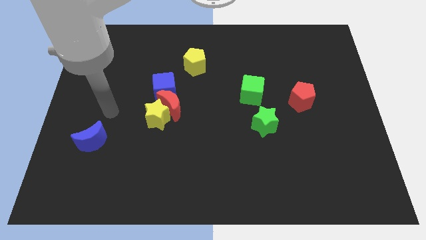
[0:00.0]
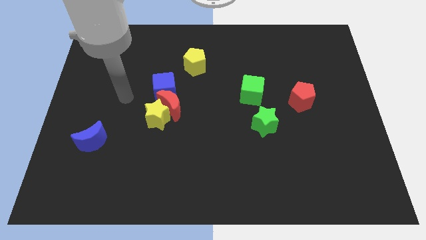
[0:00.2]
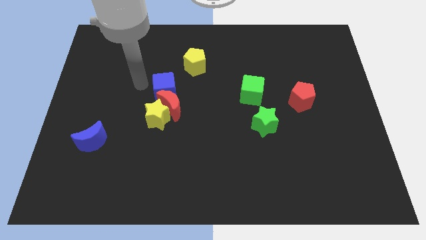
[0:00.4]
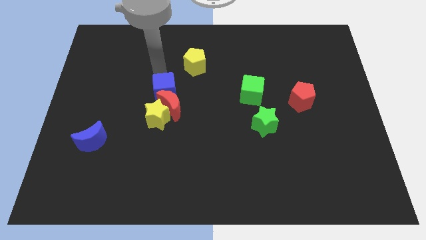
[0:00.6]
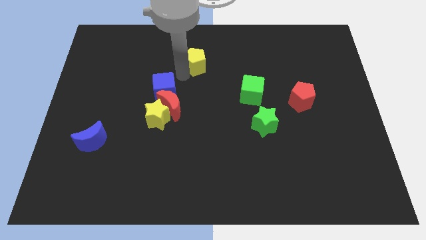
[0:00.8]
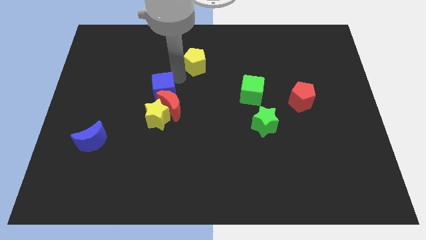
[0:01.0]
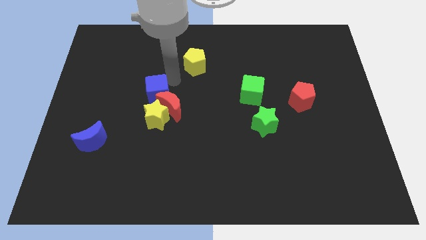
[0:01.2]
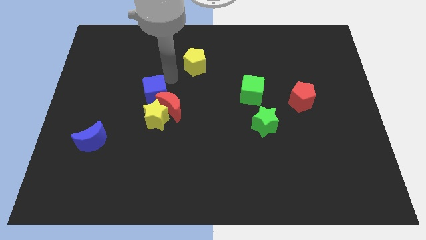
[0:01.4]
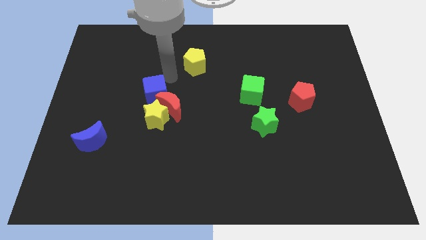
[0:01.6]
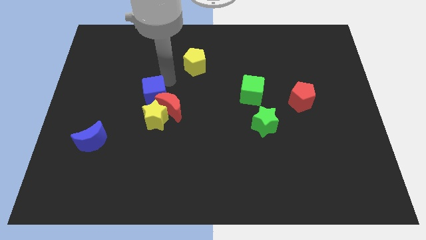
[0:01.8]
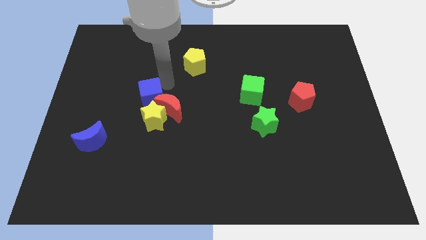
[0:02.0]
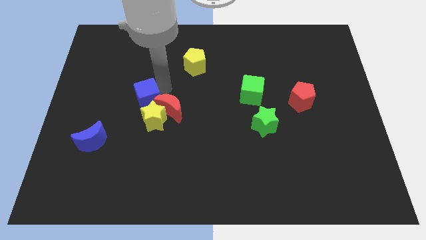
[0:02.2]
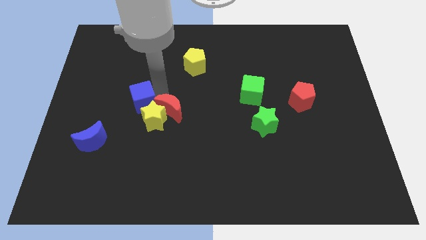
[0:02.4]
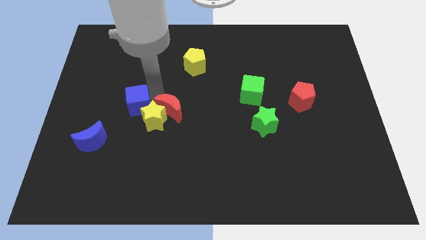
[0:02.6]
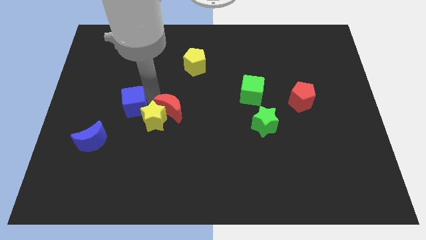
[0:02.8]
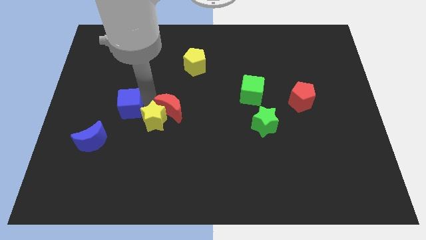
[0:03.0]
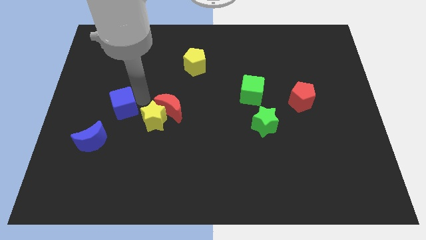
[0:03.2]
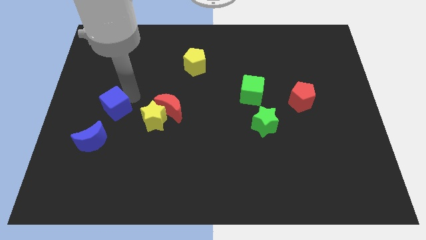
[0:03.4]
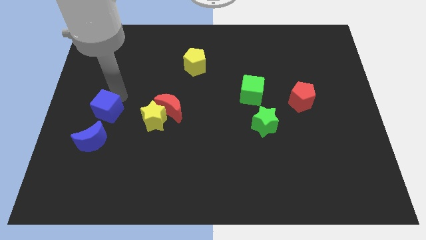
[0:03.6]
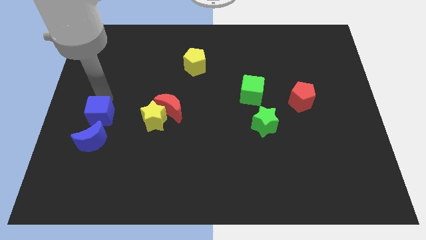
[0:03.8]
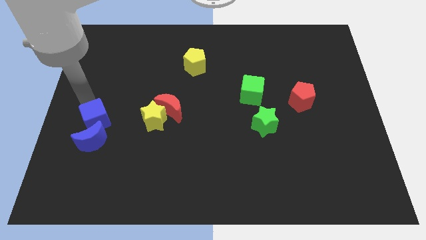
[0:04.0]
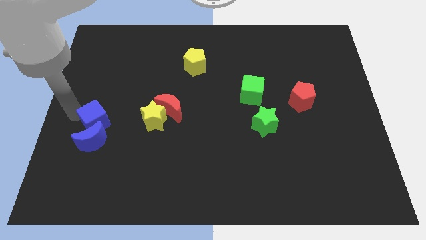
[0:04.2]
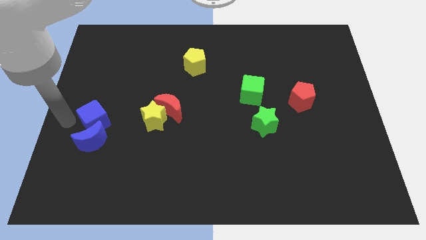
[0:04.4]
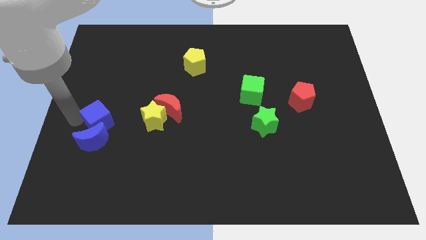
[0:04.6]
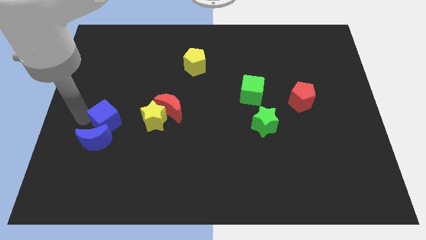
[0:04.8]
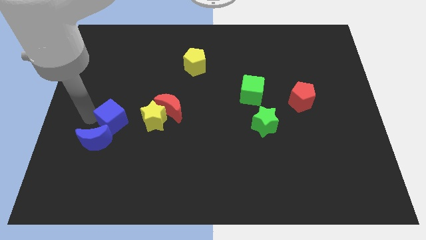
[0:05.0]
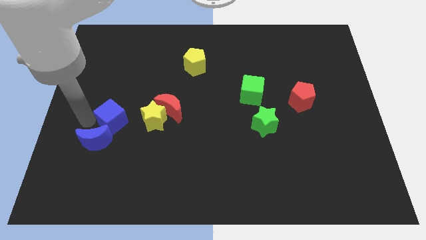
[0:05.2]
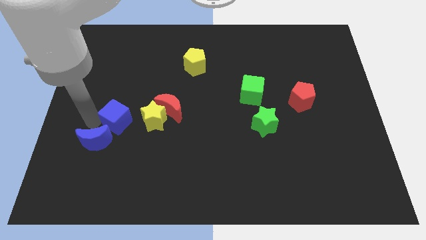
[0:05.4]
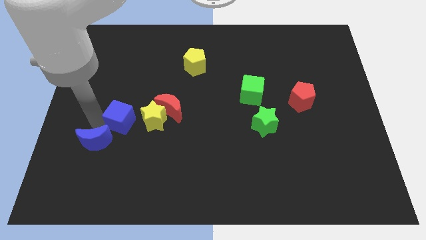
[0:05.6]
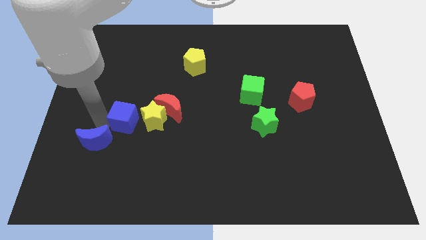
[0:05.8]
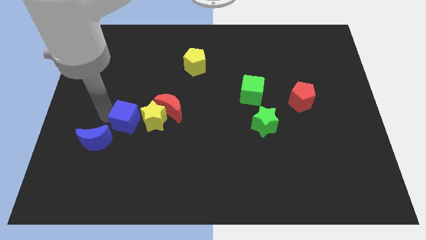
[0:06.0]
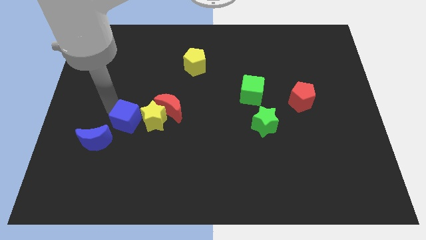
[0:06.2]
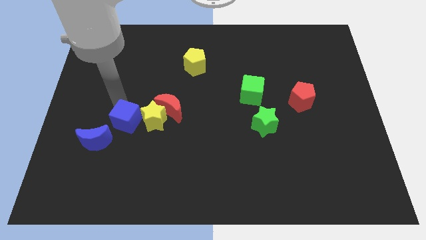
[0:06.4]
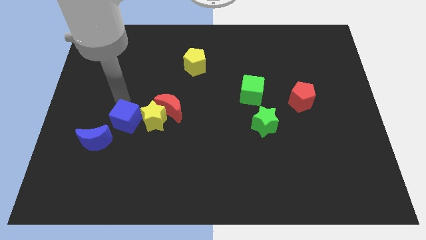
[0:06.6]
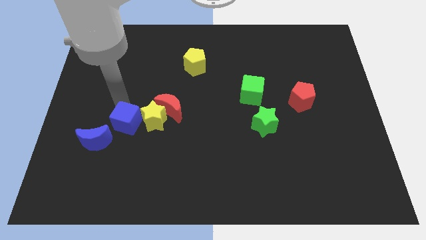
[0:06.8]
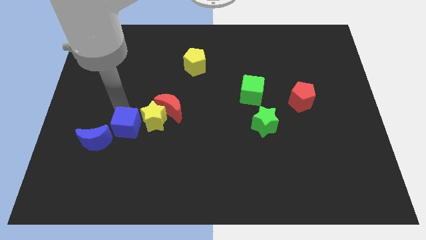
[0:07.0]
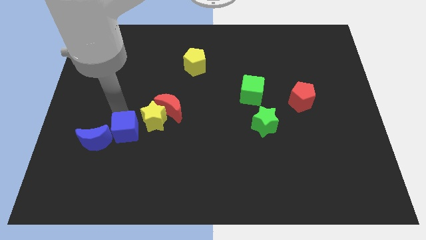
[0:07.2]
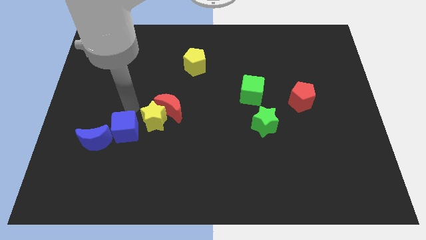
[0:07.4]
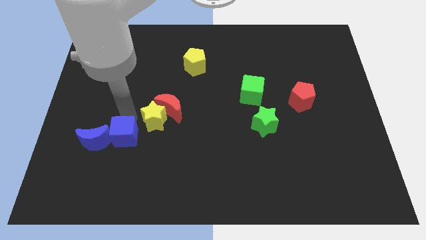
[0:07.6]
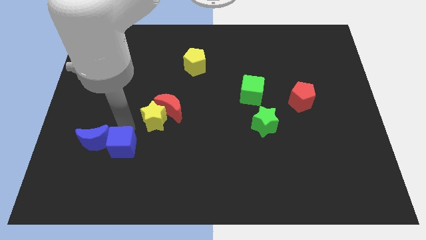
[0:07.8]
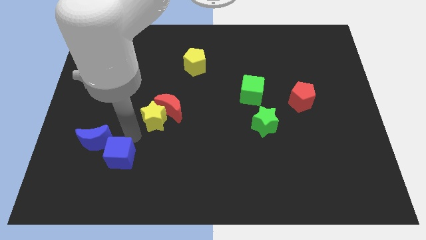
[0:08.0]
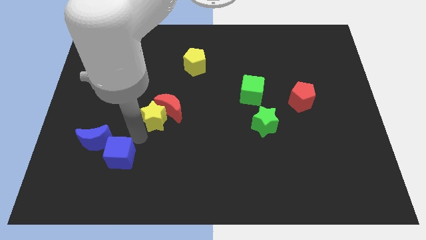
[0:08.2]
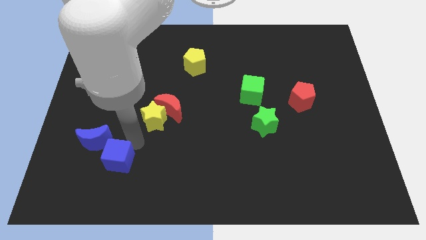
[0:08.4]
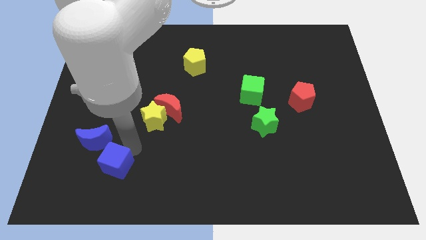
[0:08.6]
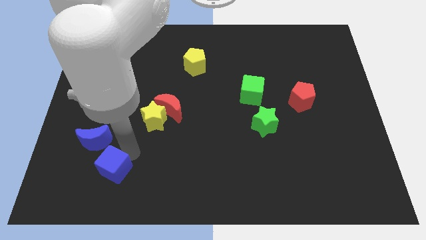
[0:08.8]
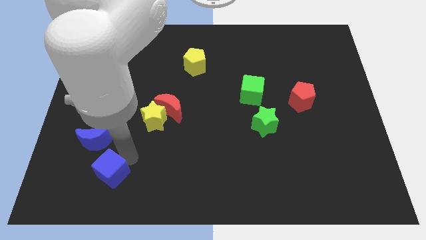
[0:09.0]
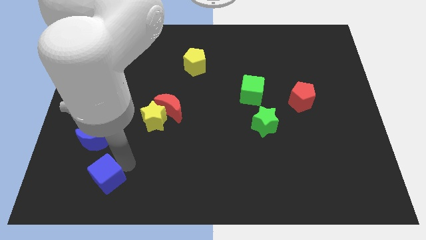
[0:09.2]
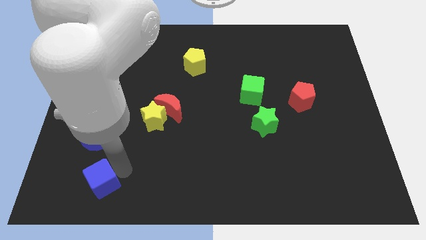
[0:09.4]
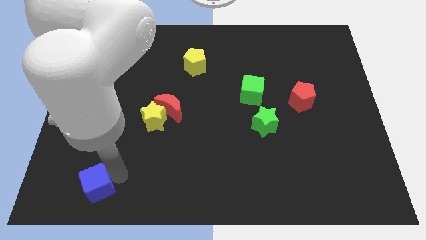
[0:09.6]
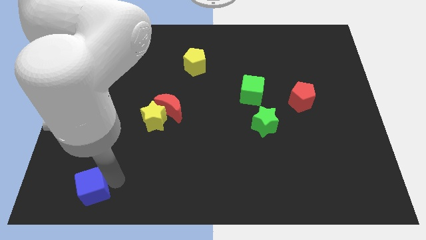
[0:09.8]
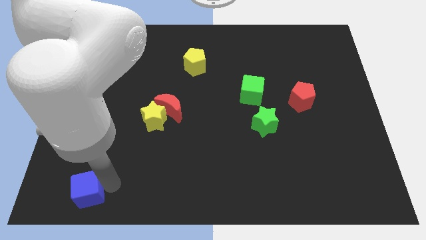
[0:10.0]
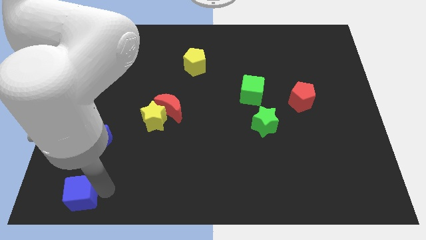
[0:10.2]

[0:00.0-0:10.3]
slide the blue cube to the bottom left of the board

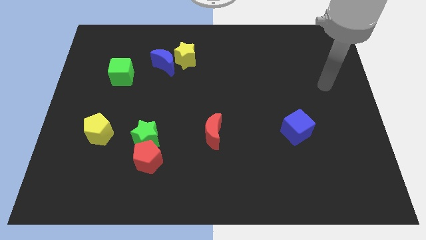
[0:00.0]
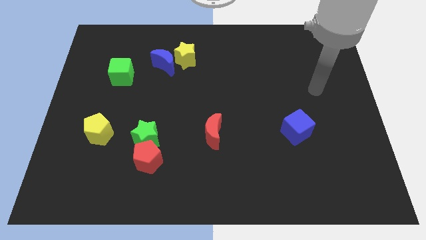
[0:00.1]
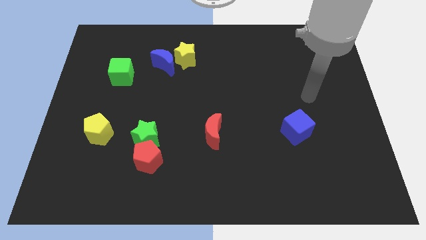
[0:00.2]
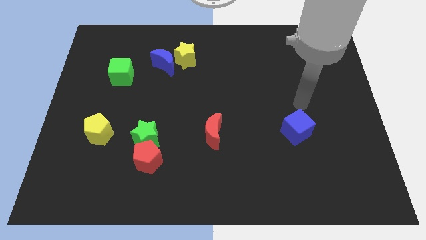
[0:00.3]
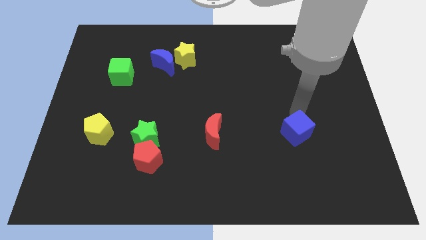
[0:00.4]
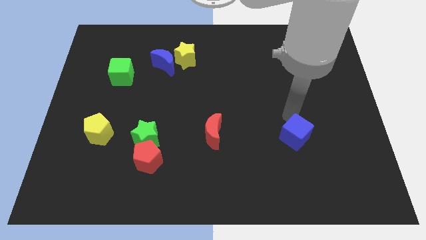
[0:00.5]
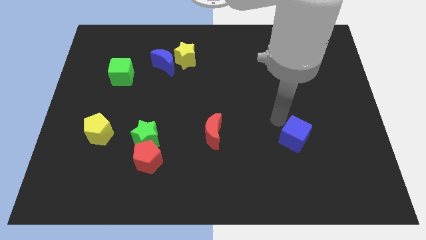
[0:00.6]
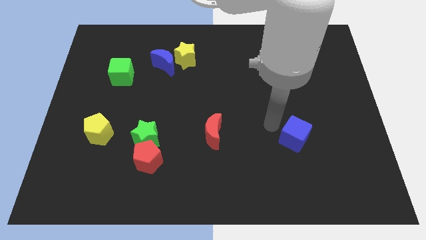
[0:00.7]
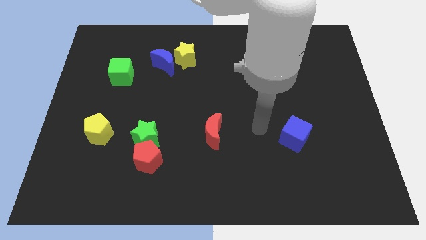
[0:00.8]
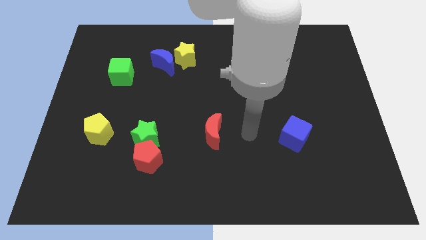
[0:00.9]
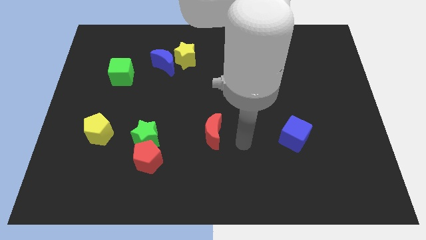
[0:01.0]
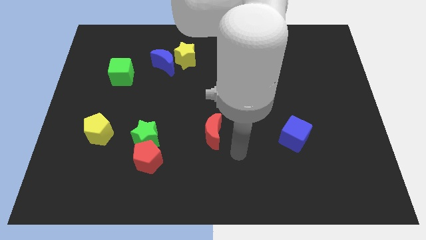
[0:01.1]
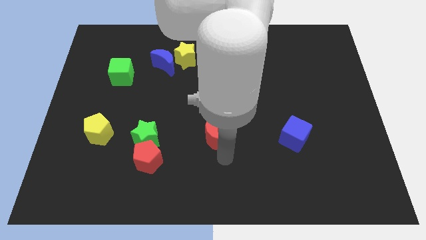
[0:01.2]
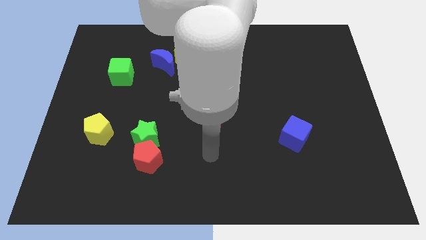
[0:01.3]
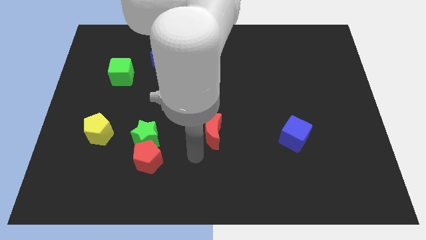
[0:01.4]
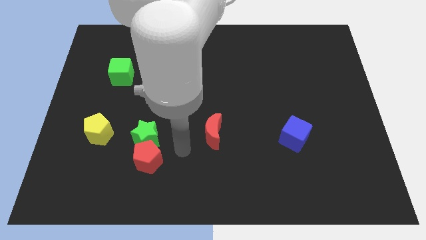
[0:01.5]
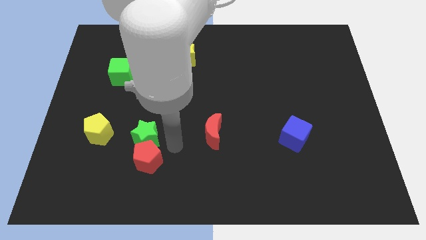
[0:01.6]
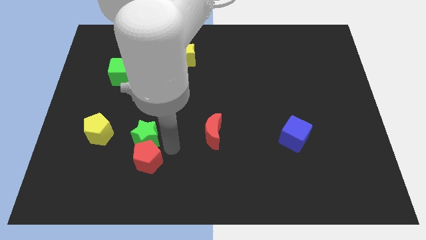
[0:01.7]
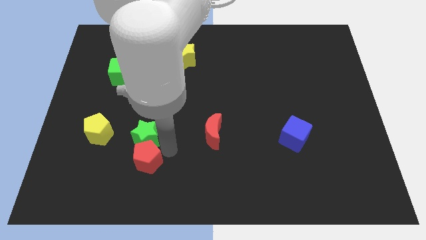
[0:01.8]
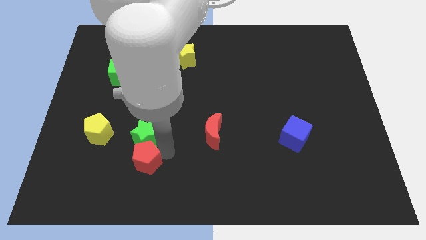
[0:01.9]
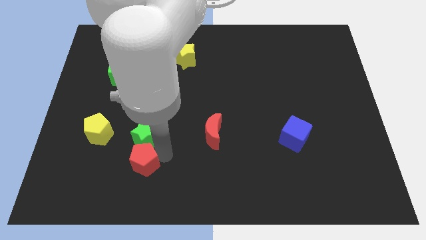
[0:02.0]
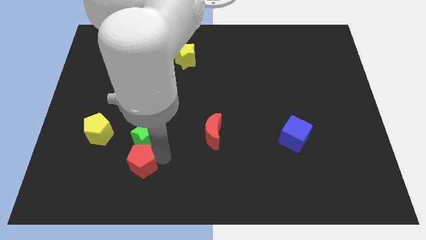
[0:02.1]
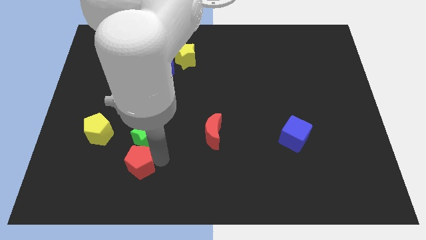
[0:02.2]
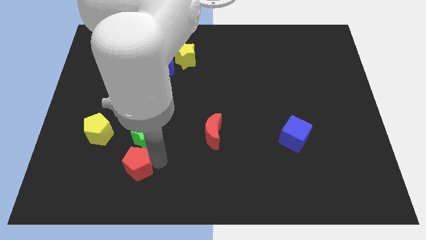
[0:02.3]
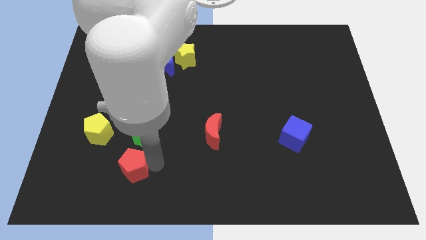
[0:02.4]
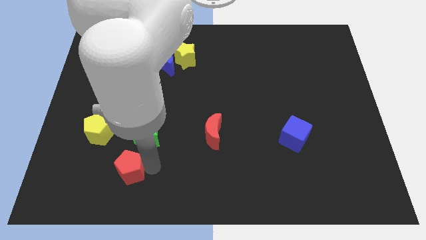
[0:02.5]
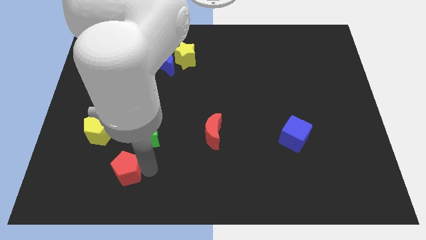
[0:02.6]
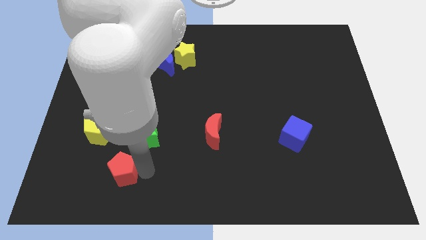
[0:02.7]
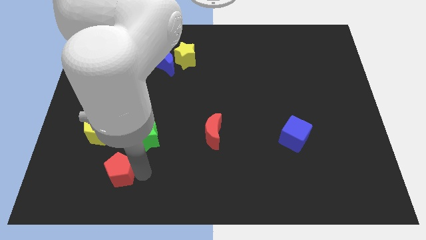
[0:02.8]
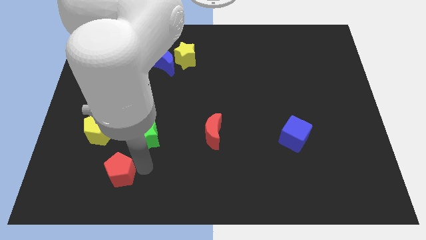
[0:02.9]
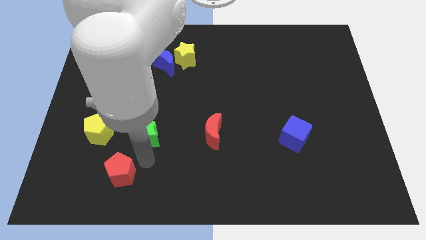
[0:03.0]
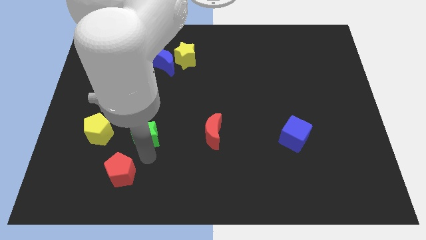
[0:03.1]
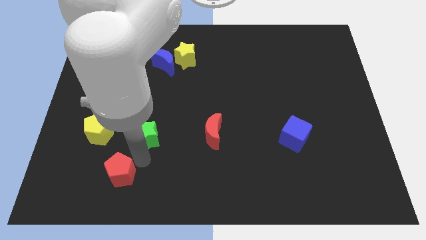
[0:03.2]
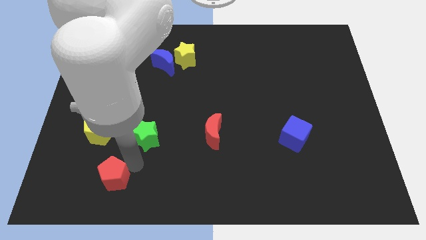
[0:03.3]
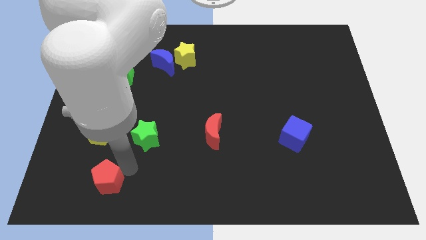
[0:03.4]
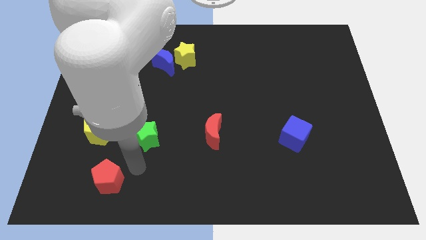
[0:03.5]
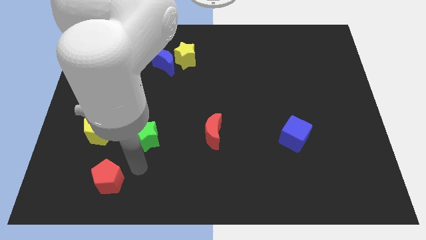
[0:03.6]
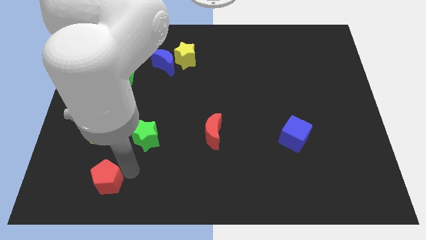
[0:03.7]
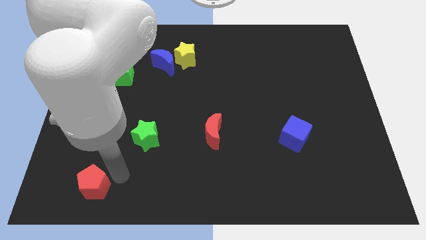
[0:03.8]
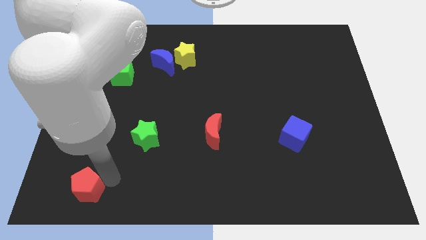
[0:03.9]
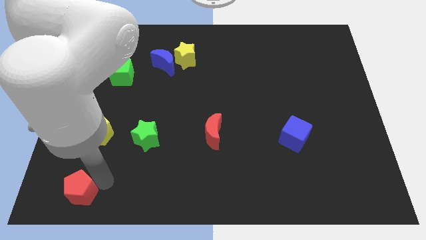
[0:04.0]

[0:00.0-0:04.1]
push the red pentagon to the lower left corner
